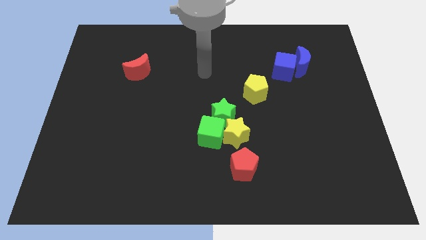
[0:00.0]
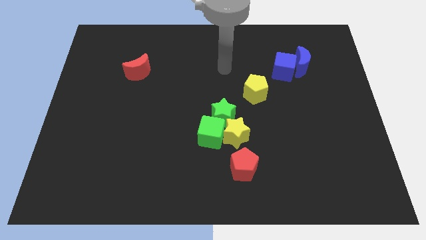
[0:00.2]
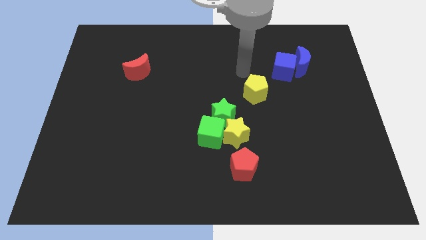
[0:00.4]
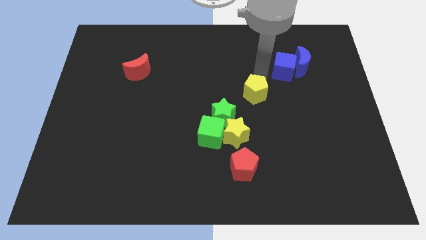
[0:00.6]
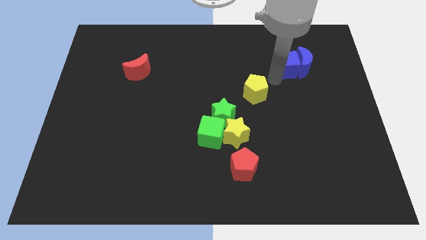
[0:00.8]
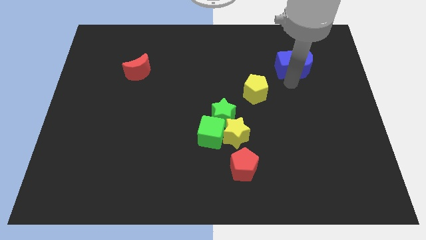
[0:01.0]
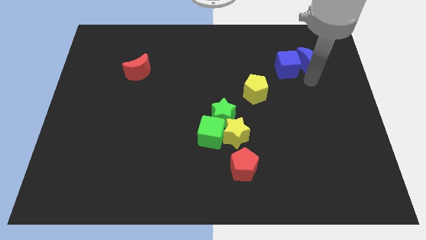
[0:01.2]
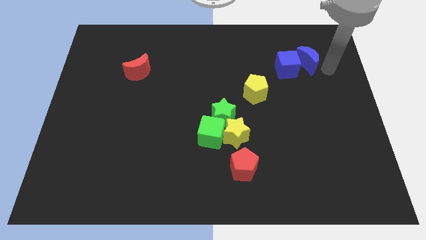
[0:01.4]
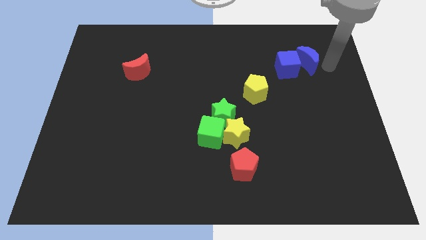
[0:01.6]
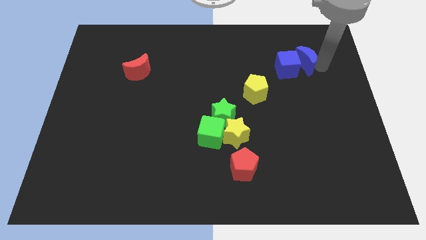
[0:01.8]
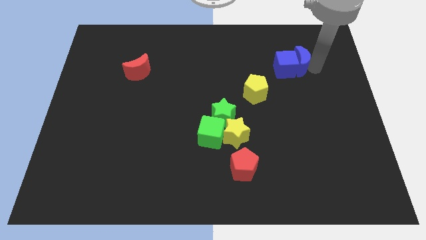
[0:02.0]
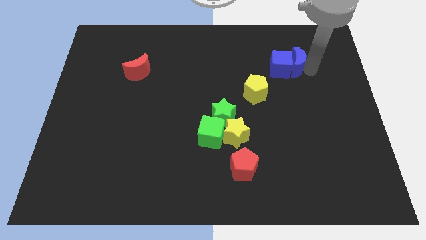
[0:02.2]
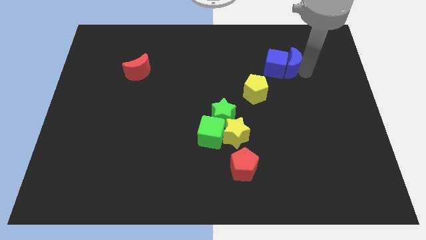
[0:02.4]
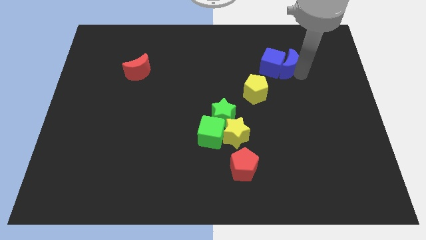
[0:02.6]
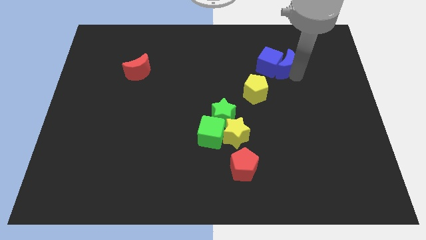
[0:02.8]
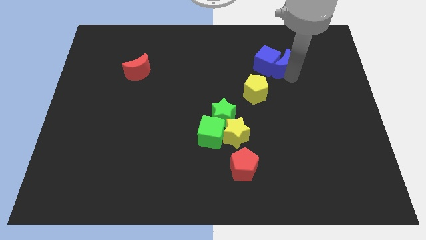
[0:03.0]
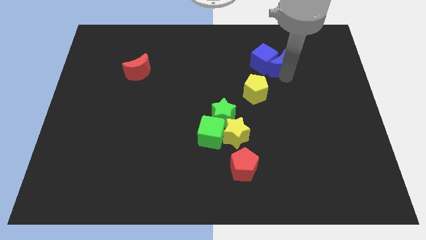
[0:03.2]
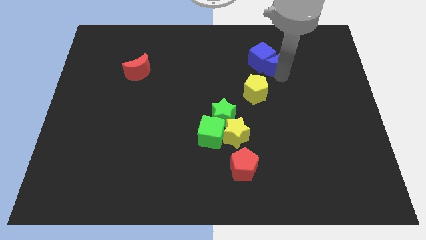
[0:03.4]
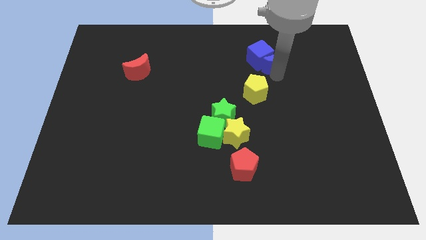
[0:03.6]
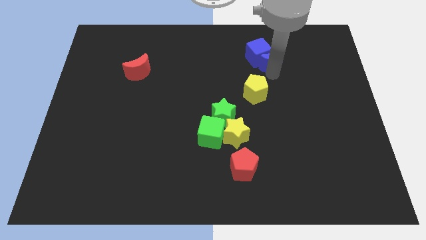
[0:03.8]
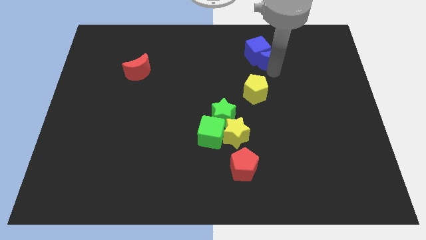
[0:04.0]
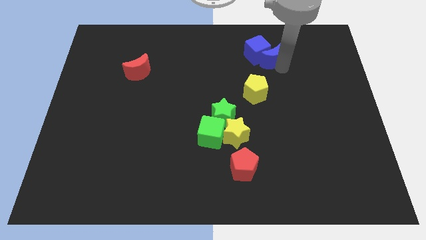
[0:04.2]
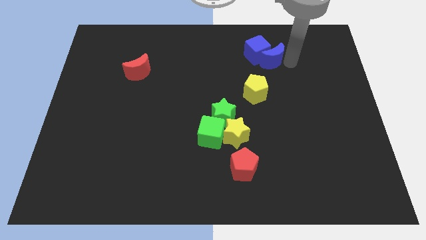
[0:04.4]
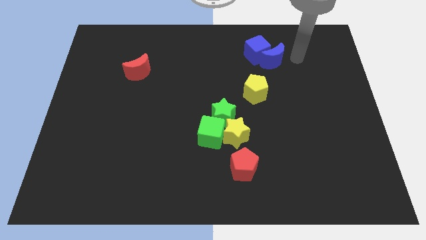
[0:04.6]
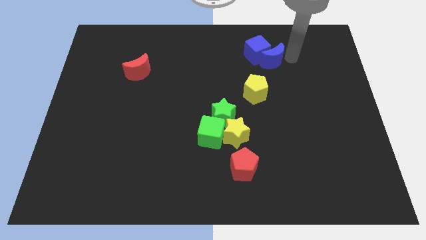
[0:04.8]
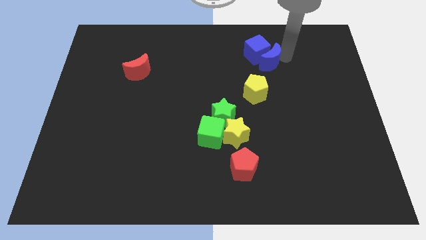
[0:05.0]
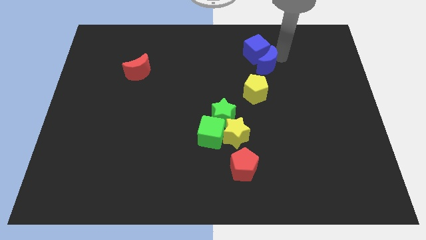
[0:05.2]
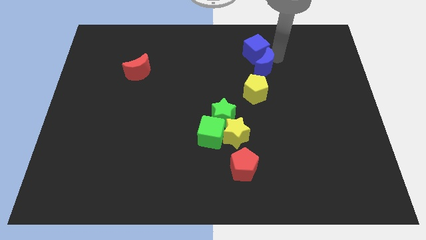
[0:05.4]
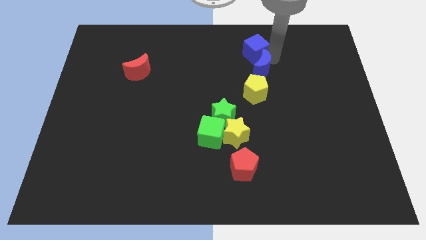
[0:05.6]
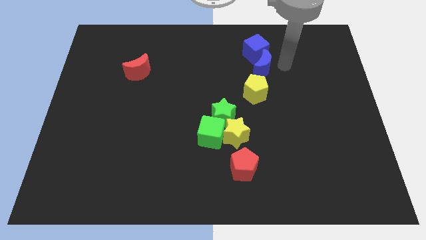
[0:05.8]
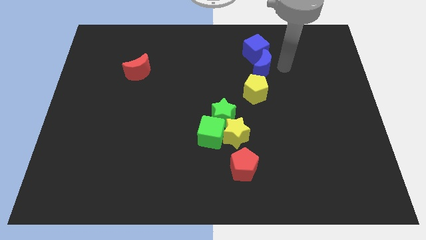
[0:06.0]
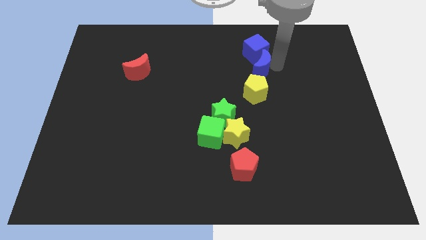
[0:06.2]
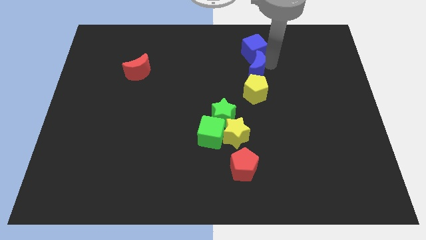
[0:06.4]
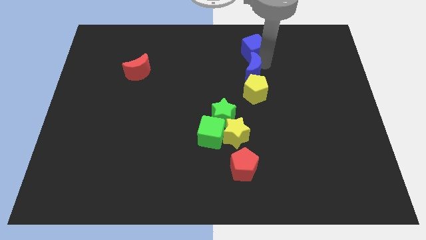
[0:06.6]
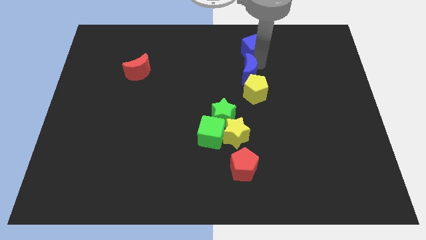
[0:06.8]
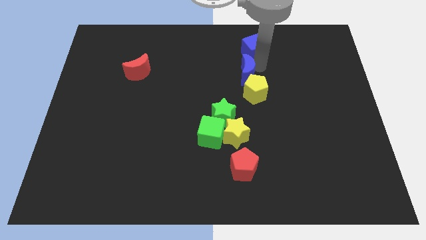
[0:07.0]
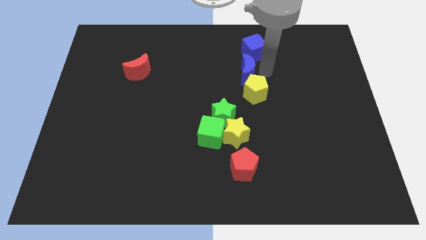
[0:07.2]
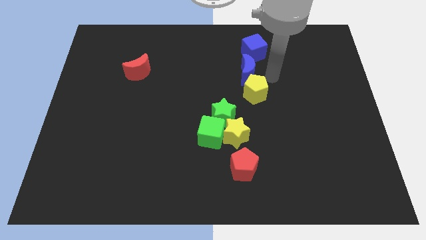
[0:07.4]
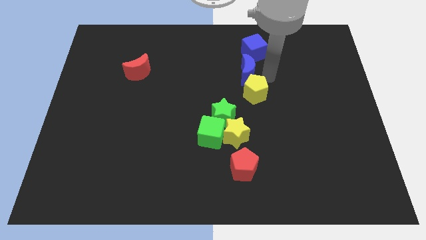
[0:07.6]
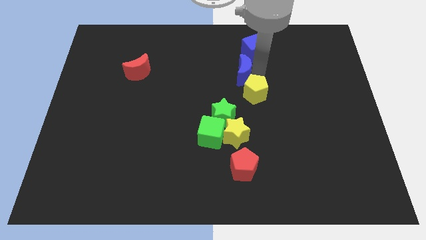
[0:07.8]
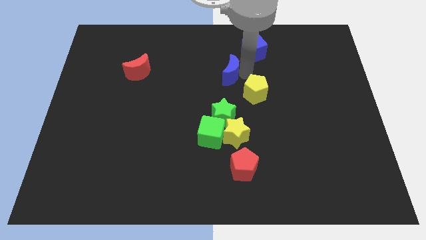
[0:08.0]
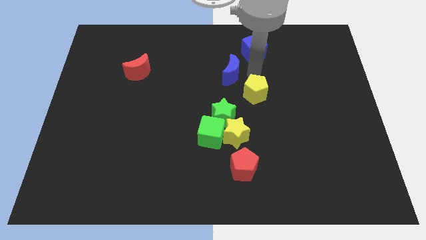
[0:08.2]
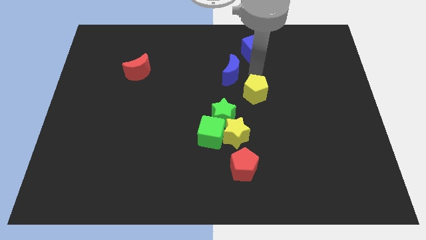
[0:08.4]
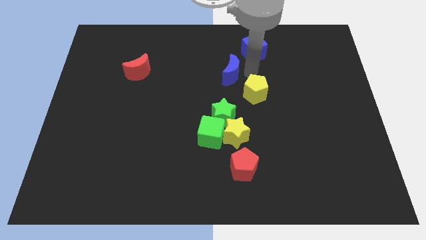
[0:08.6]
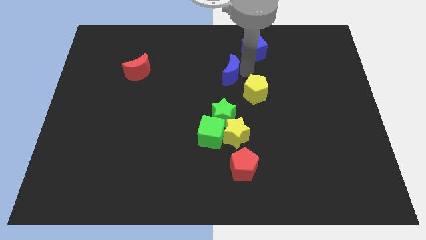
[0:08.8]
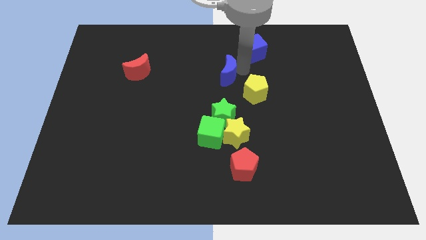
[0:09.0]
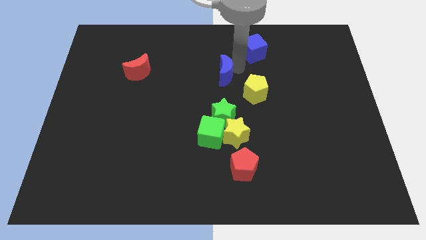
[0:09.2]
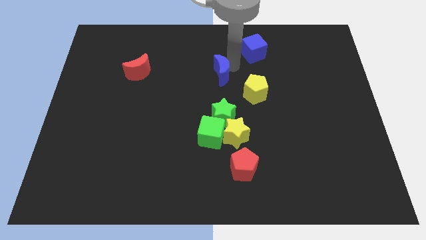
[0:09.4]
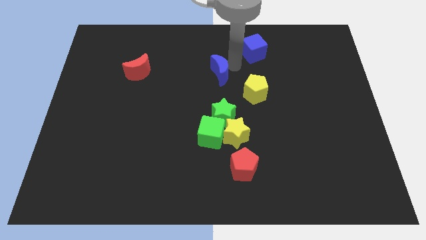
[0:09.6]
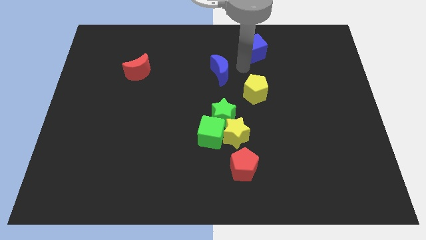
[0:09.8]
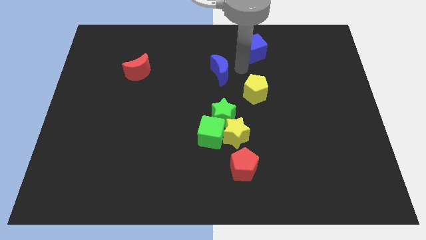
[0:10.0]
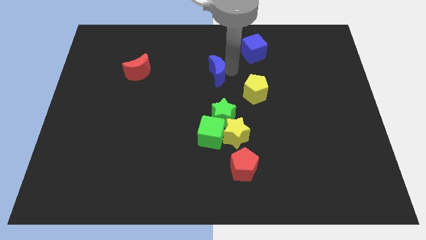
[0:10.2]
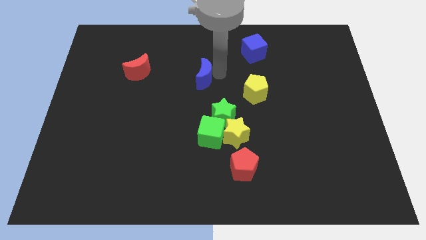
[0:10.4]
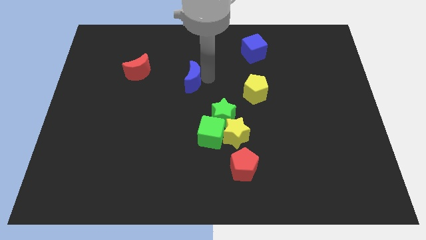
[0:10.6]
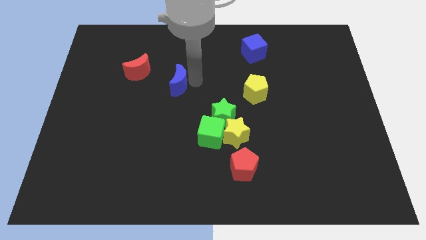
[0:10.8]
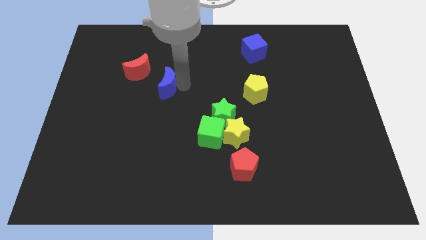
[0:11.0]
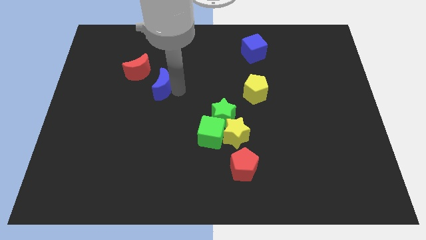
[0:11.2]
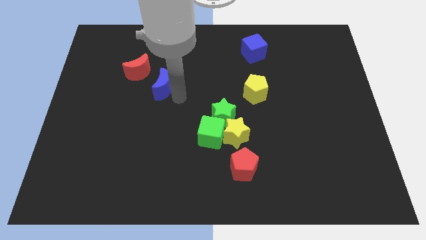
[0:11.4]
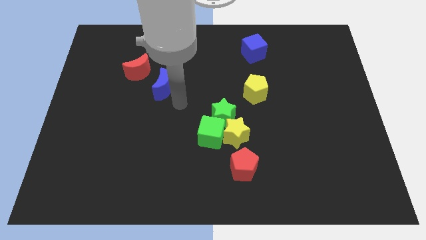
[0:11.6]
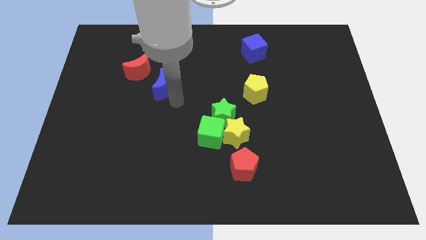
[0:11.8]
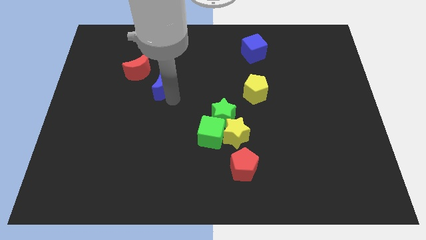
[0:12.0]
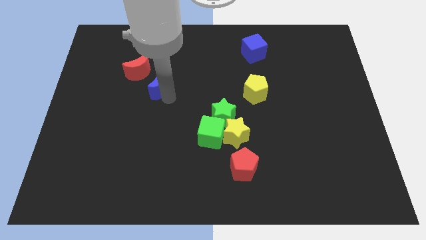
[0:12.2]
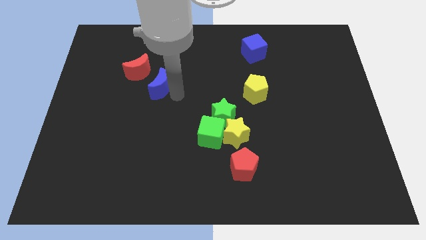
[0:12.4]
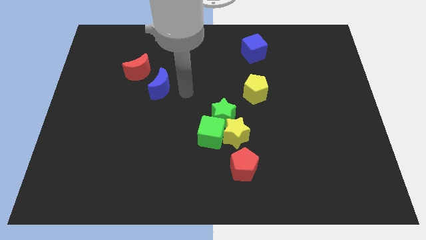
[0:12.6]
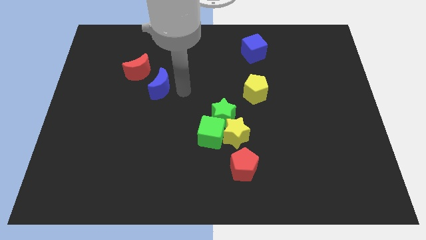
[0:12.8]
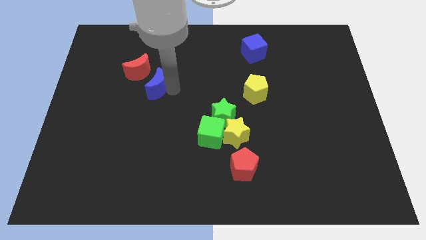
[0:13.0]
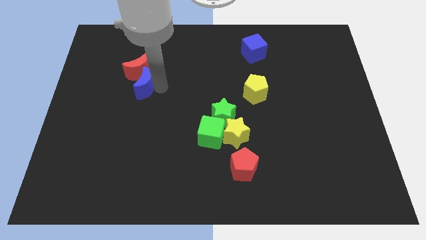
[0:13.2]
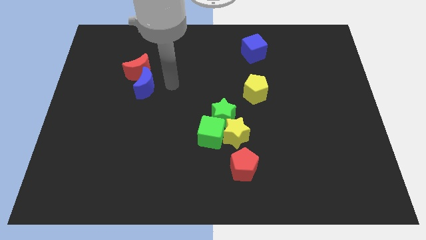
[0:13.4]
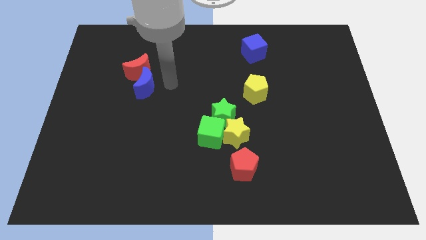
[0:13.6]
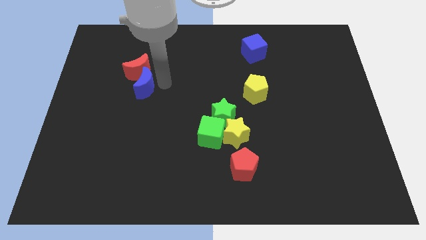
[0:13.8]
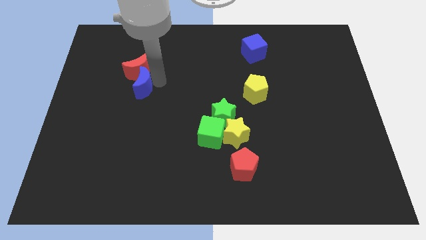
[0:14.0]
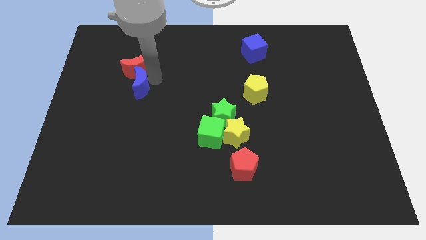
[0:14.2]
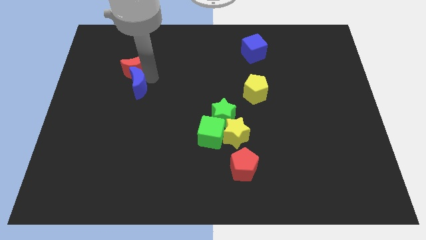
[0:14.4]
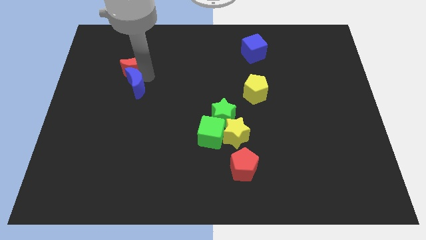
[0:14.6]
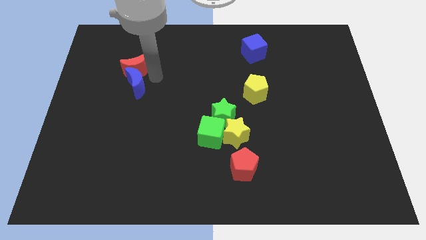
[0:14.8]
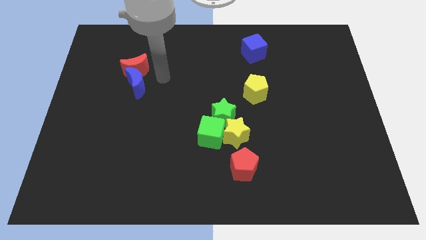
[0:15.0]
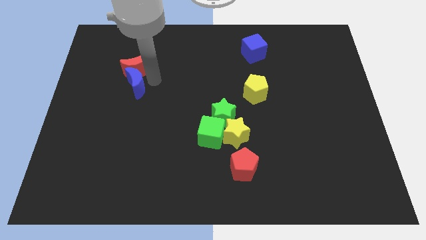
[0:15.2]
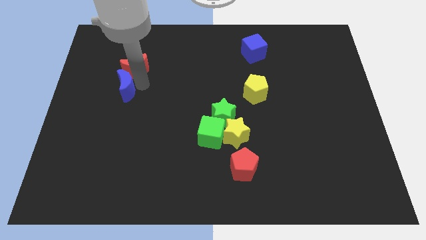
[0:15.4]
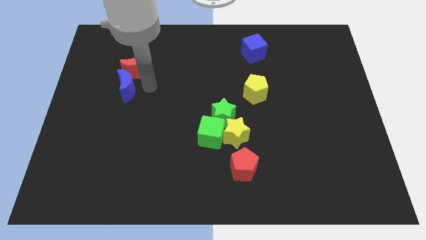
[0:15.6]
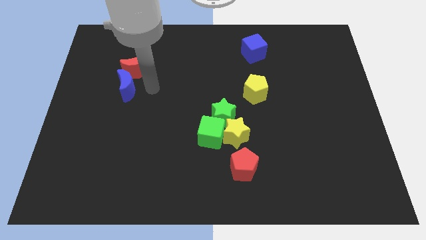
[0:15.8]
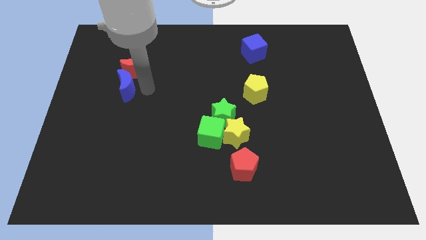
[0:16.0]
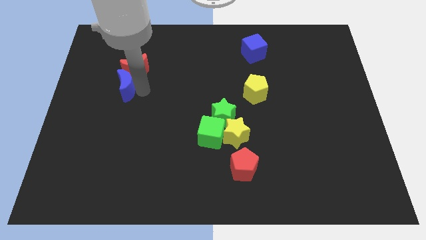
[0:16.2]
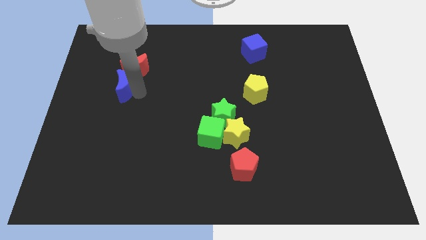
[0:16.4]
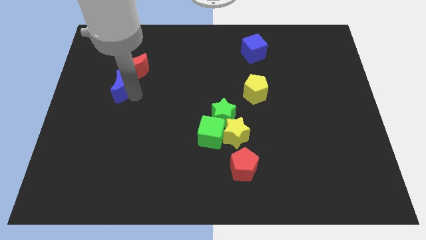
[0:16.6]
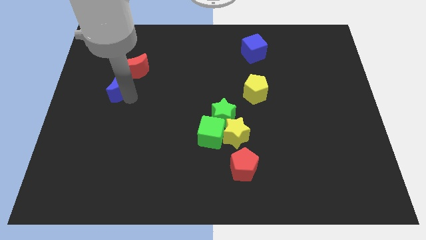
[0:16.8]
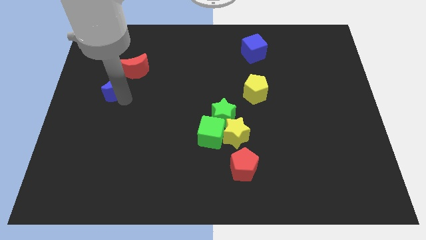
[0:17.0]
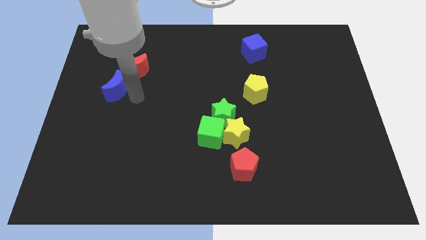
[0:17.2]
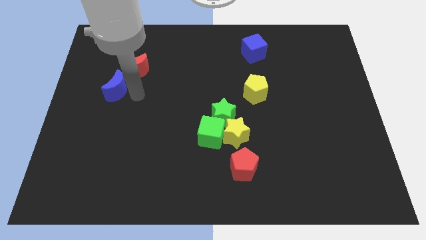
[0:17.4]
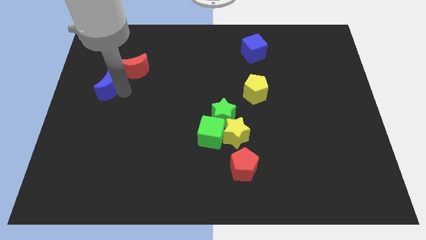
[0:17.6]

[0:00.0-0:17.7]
push the blue moon to the center left
